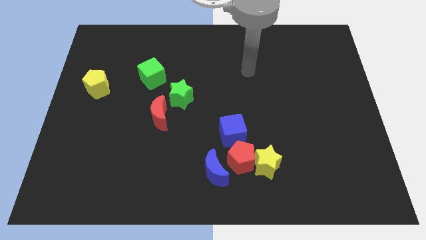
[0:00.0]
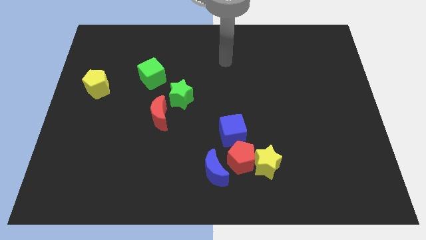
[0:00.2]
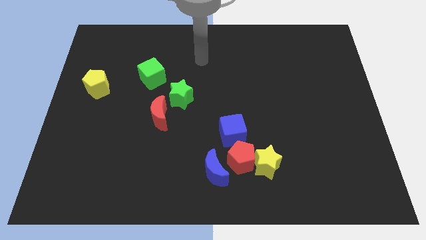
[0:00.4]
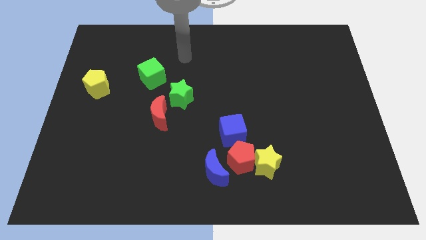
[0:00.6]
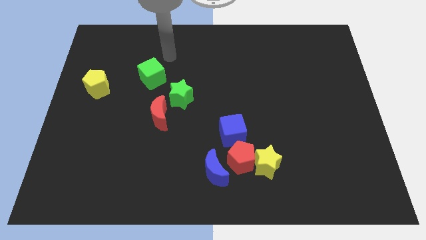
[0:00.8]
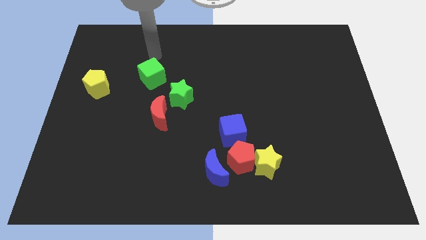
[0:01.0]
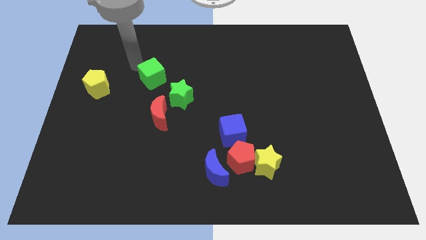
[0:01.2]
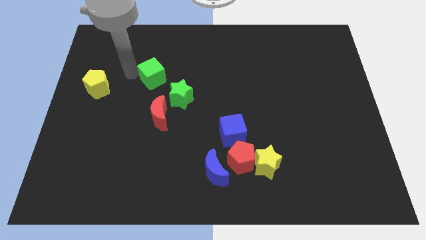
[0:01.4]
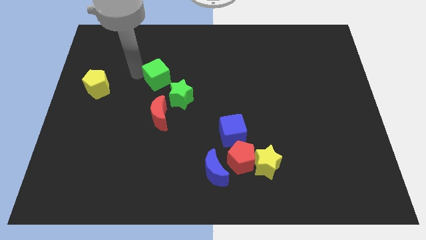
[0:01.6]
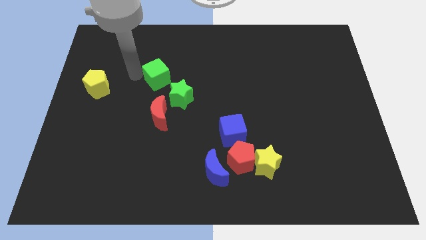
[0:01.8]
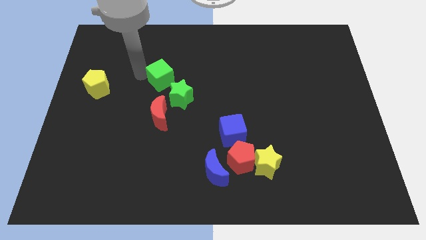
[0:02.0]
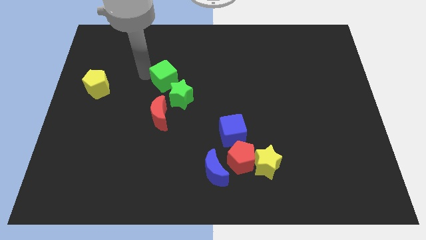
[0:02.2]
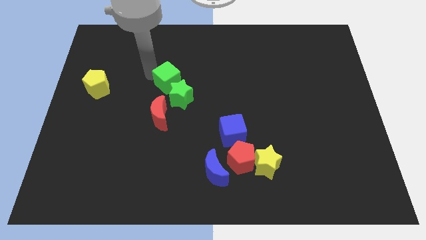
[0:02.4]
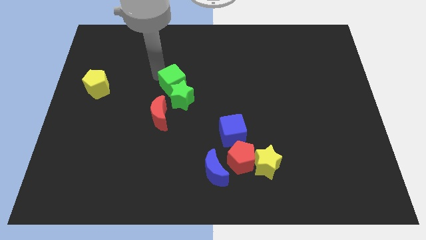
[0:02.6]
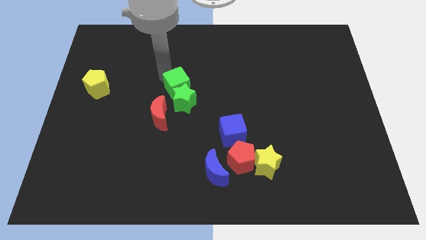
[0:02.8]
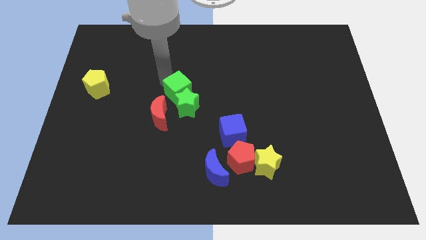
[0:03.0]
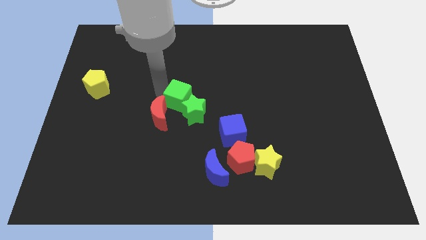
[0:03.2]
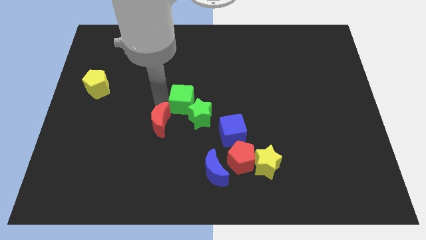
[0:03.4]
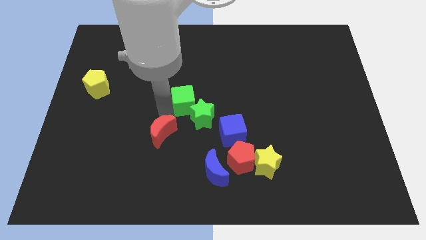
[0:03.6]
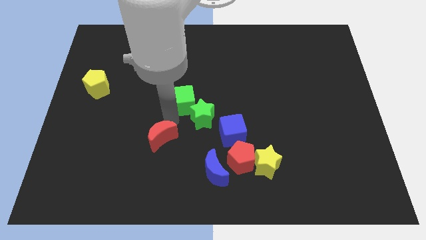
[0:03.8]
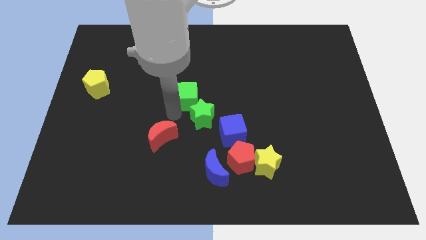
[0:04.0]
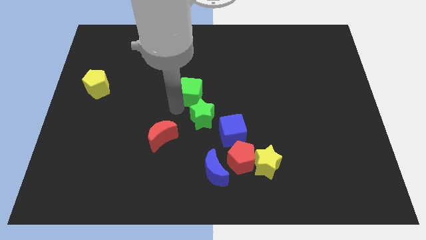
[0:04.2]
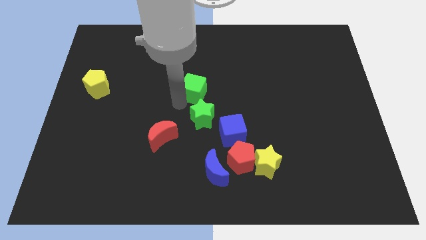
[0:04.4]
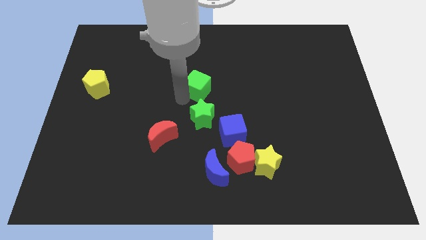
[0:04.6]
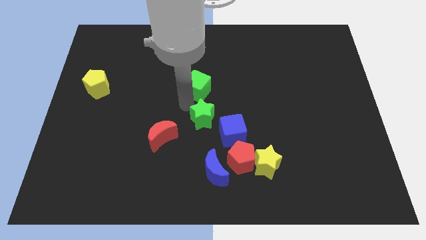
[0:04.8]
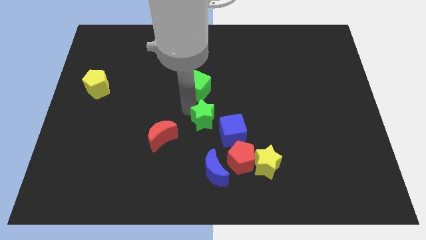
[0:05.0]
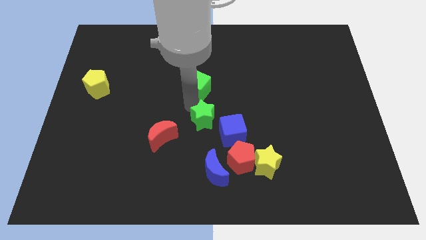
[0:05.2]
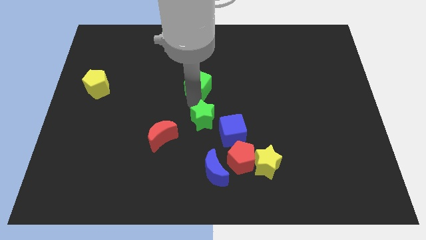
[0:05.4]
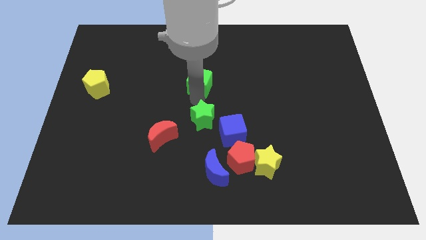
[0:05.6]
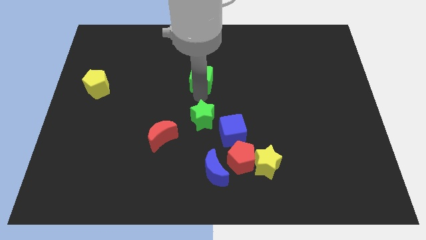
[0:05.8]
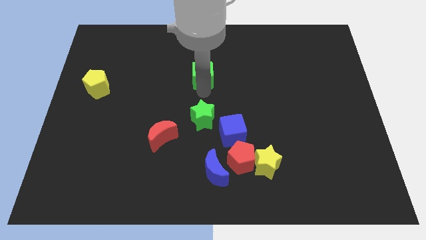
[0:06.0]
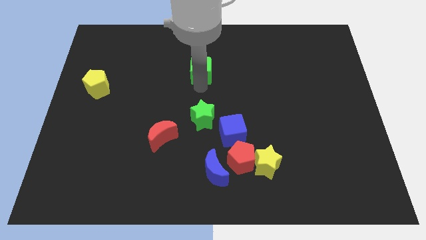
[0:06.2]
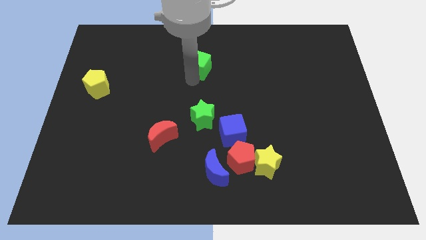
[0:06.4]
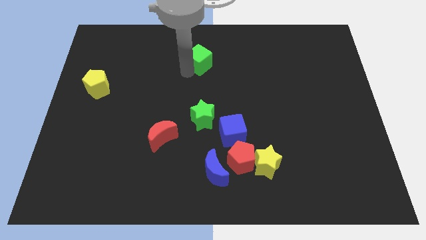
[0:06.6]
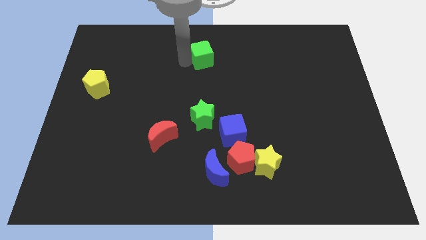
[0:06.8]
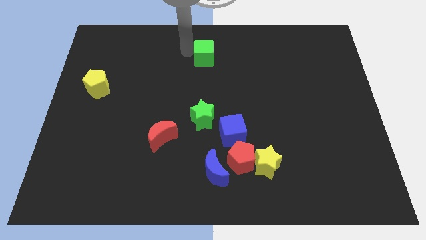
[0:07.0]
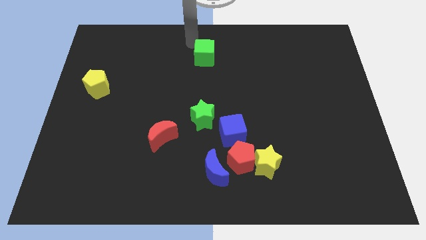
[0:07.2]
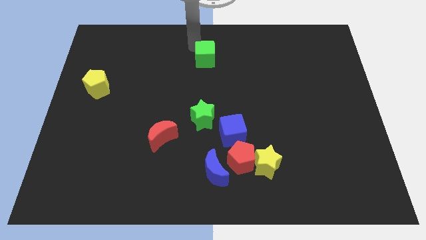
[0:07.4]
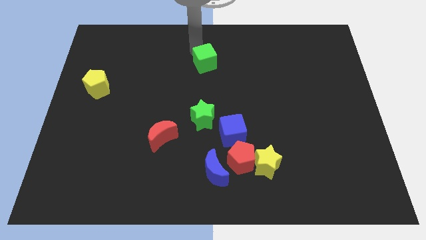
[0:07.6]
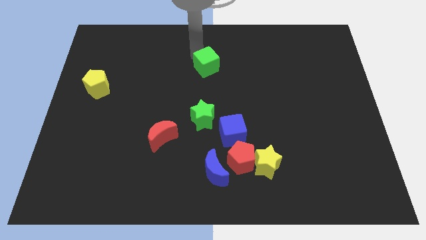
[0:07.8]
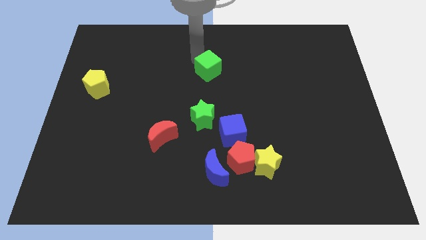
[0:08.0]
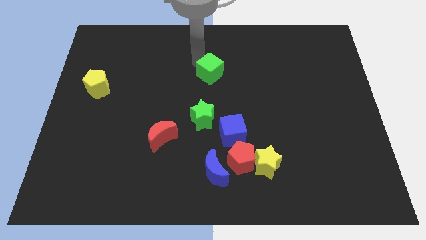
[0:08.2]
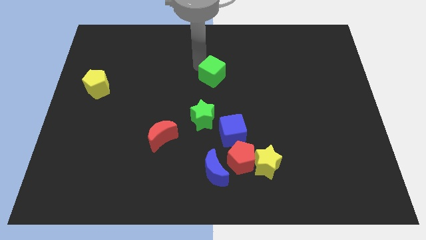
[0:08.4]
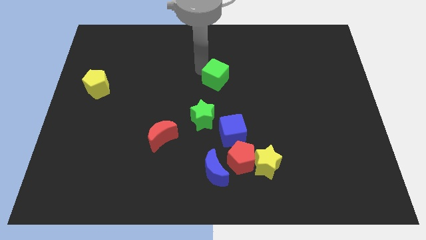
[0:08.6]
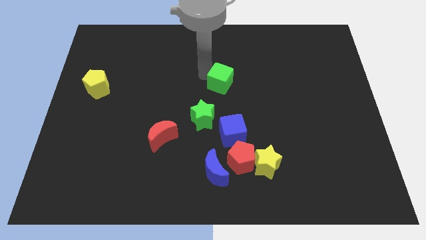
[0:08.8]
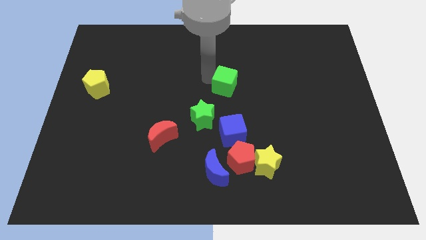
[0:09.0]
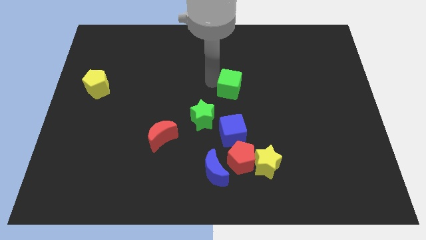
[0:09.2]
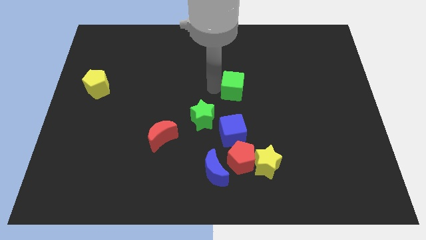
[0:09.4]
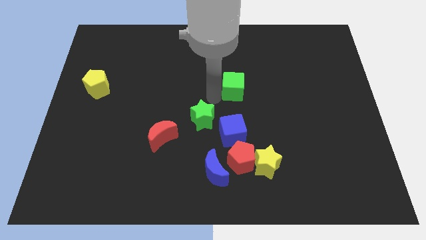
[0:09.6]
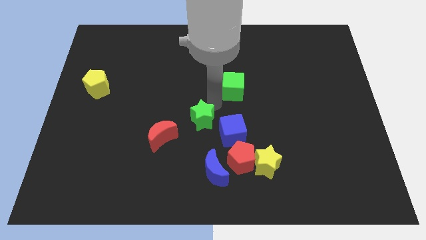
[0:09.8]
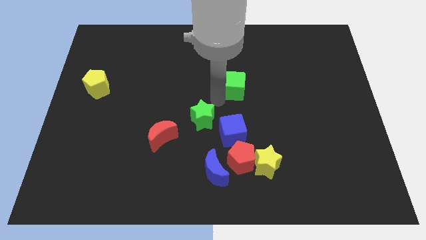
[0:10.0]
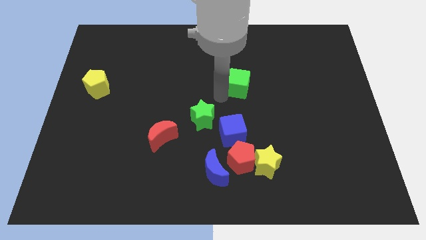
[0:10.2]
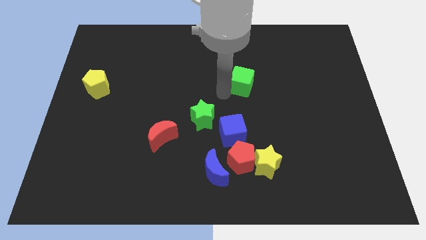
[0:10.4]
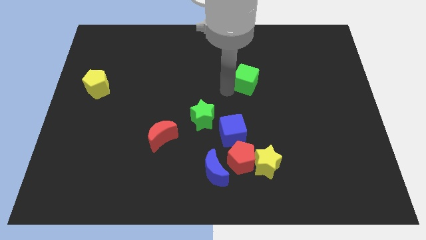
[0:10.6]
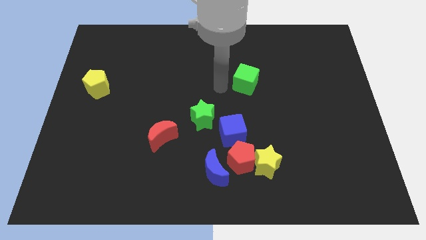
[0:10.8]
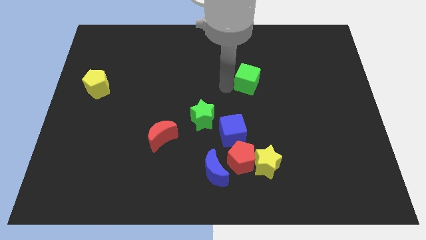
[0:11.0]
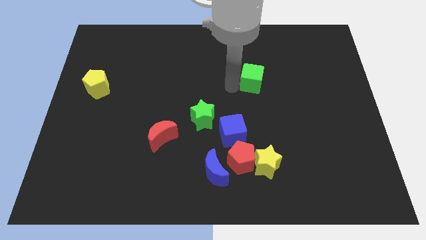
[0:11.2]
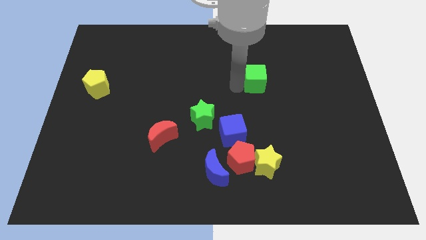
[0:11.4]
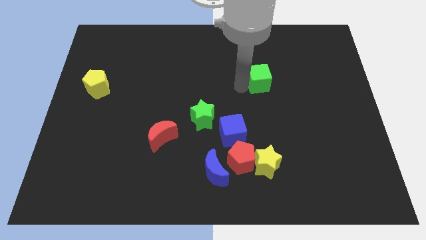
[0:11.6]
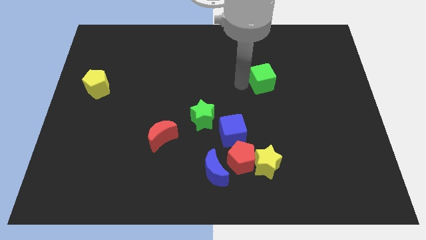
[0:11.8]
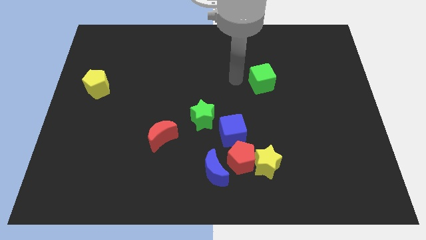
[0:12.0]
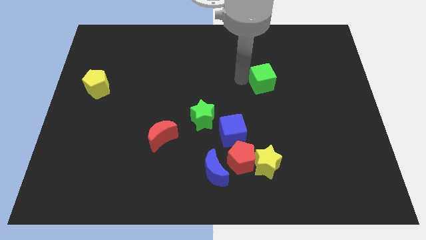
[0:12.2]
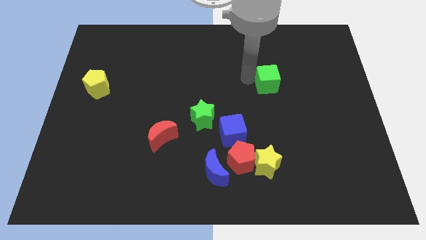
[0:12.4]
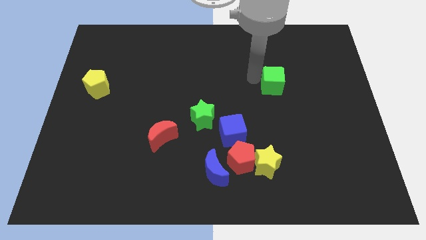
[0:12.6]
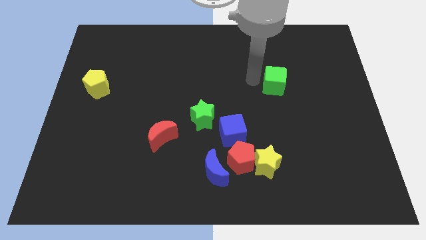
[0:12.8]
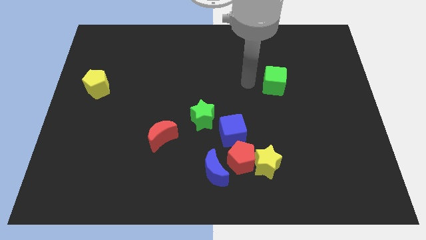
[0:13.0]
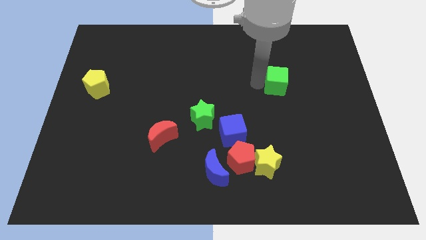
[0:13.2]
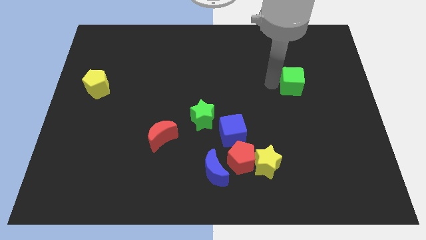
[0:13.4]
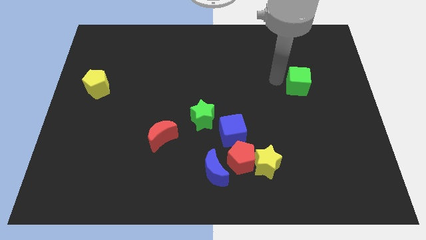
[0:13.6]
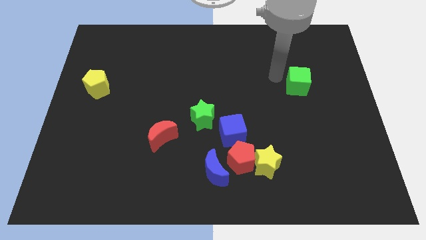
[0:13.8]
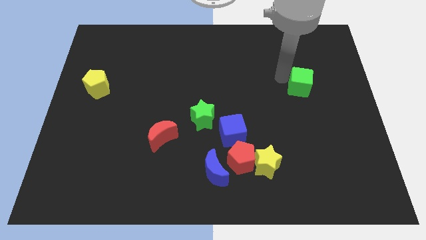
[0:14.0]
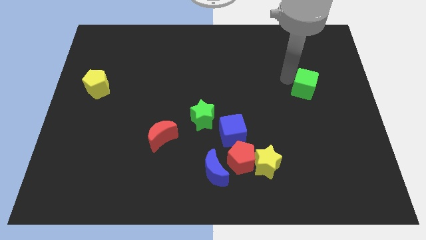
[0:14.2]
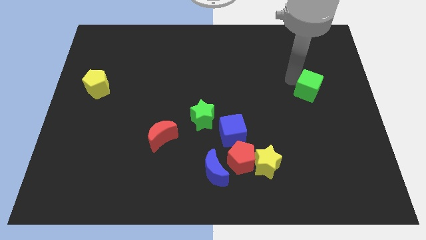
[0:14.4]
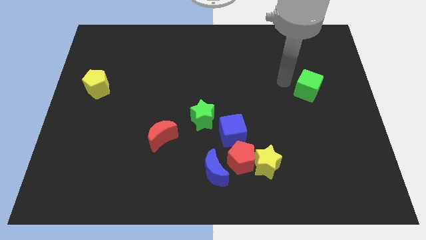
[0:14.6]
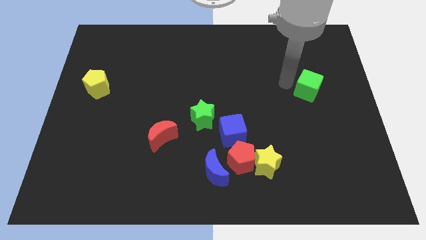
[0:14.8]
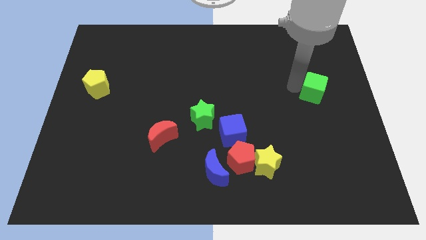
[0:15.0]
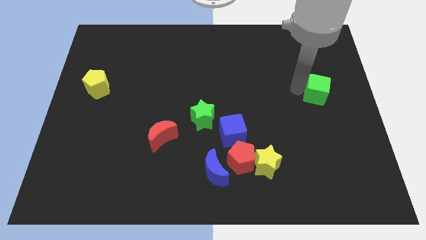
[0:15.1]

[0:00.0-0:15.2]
slide the green cube to the right side
